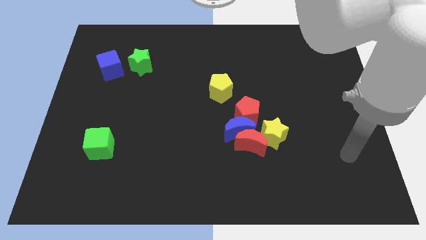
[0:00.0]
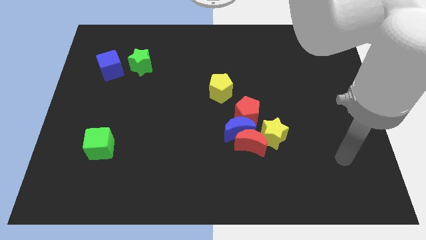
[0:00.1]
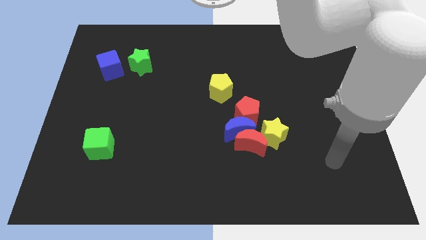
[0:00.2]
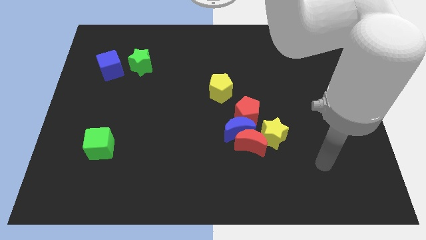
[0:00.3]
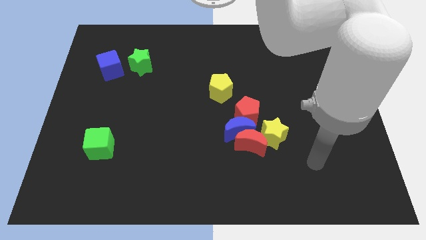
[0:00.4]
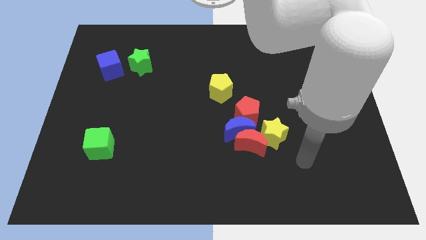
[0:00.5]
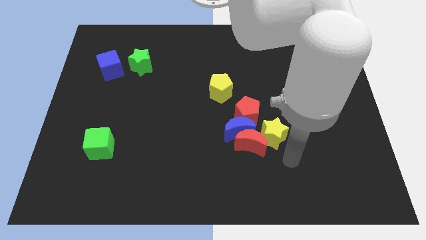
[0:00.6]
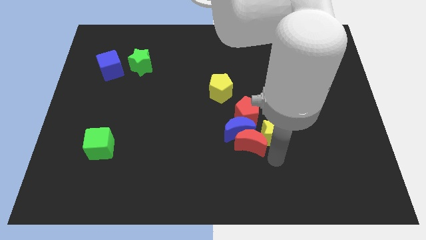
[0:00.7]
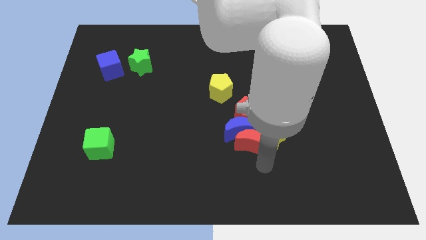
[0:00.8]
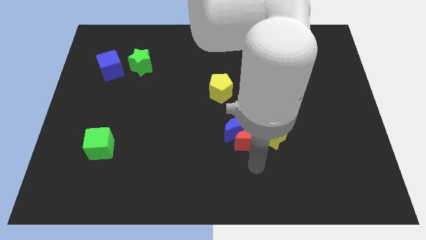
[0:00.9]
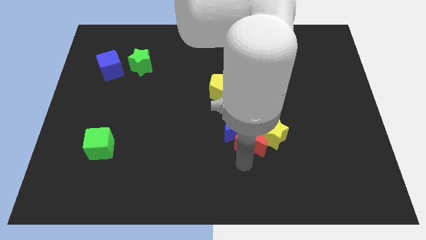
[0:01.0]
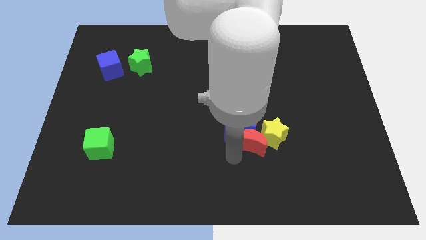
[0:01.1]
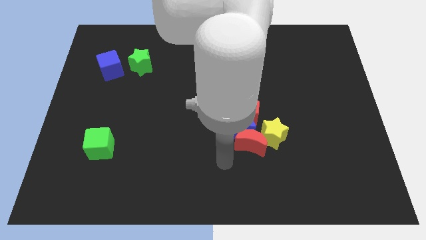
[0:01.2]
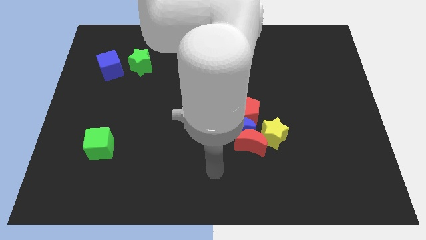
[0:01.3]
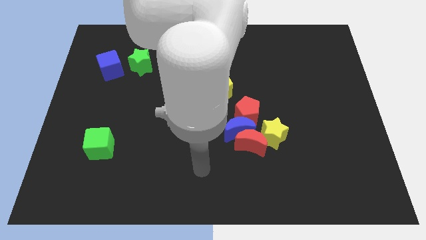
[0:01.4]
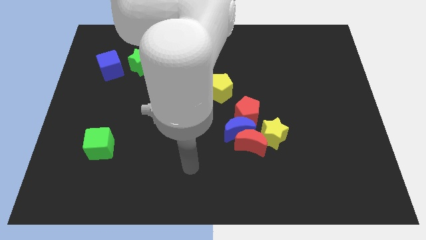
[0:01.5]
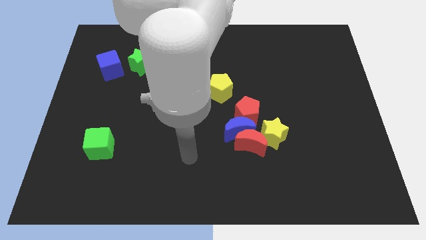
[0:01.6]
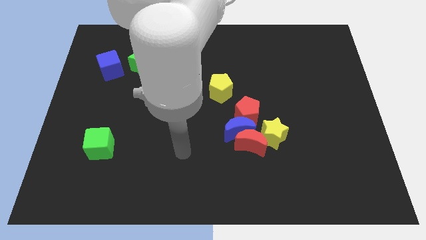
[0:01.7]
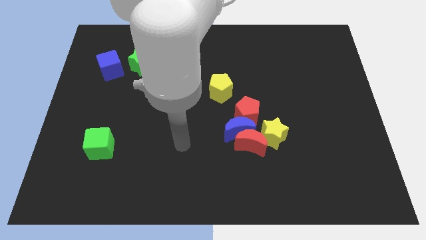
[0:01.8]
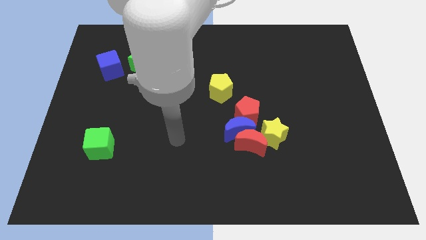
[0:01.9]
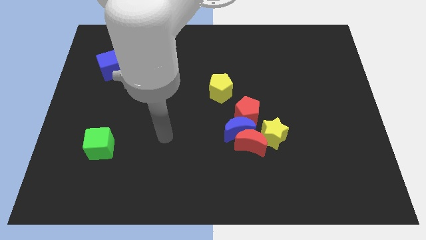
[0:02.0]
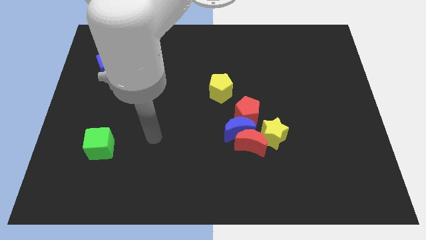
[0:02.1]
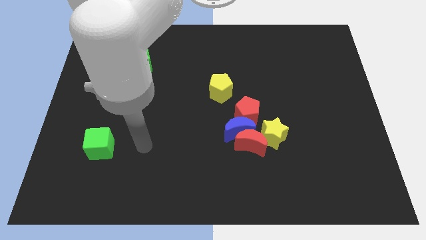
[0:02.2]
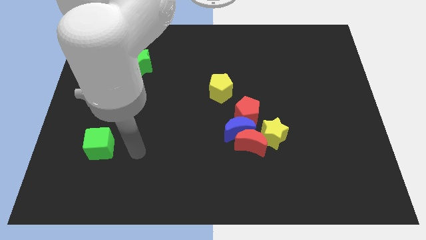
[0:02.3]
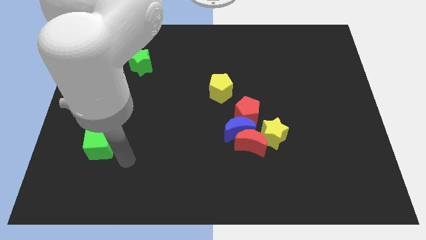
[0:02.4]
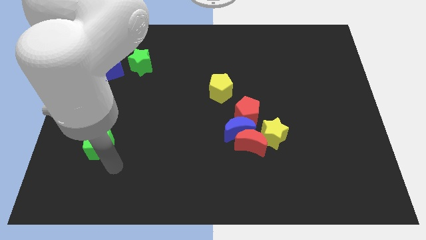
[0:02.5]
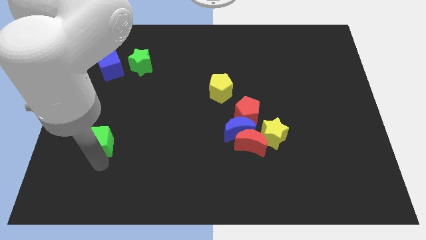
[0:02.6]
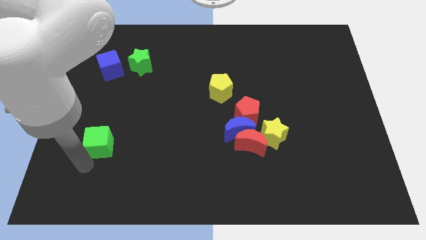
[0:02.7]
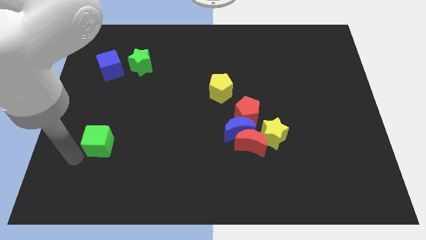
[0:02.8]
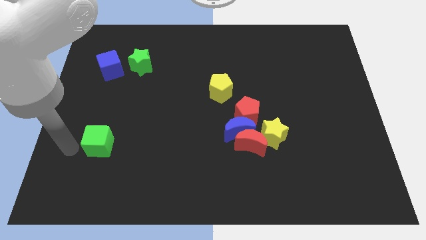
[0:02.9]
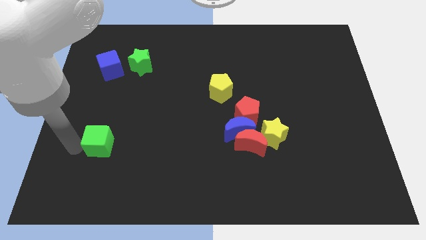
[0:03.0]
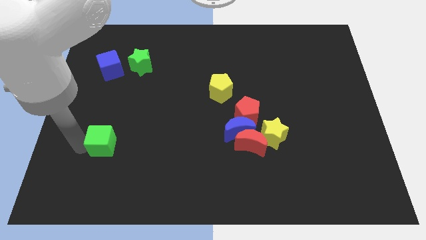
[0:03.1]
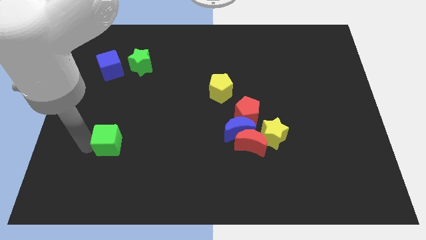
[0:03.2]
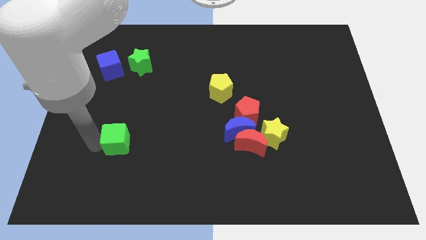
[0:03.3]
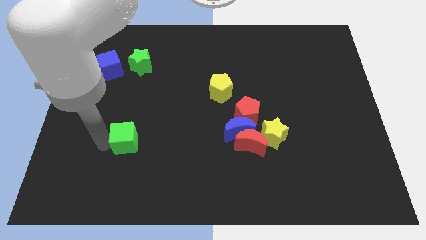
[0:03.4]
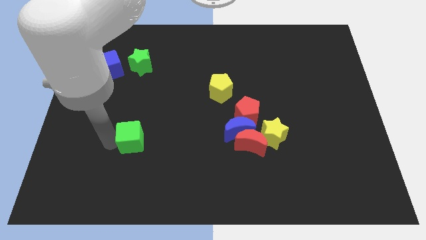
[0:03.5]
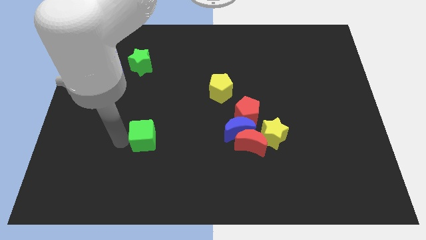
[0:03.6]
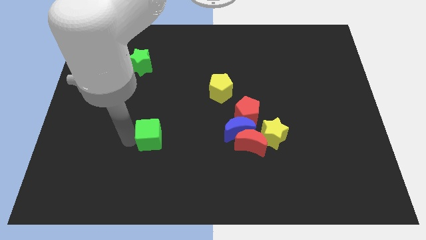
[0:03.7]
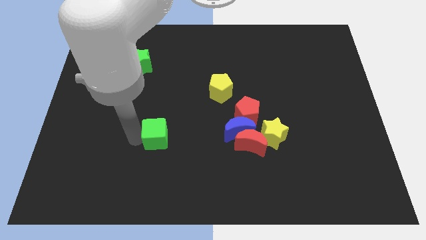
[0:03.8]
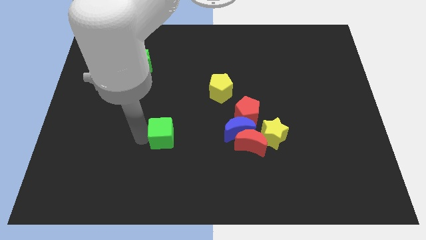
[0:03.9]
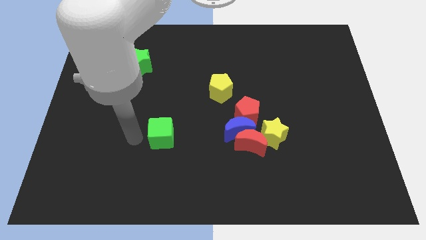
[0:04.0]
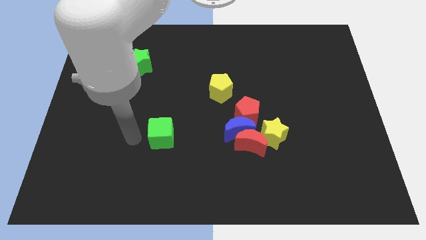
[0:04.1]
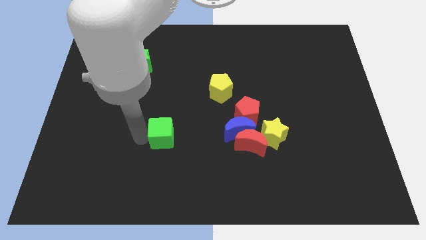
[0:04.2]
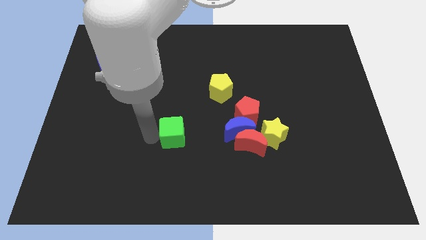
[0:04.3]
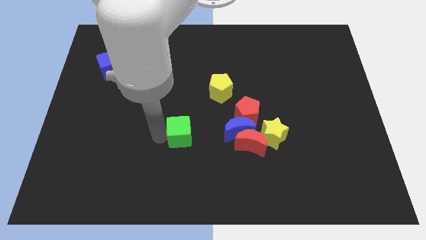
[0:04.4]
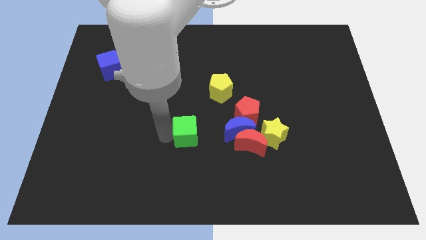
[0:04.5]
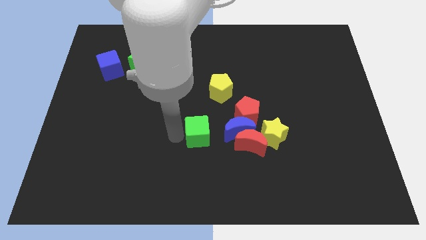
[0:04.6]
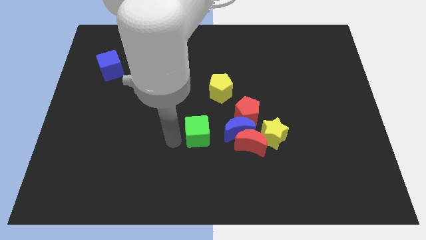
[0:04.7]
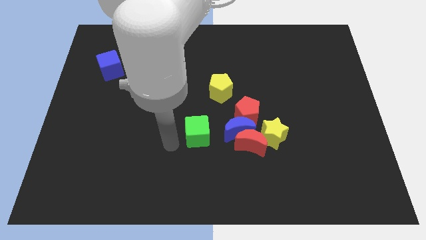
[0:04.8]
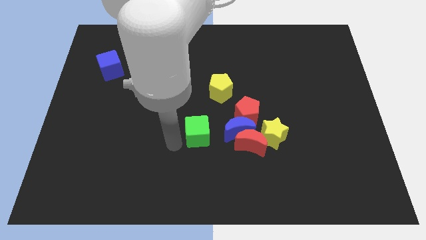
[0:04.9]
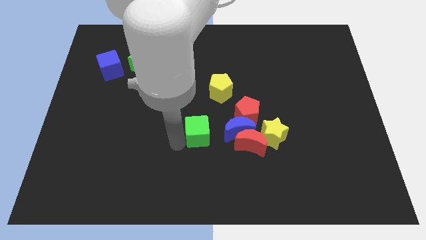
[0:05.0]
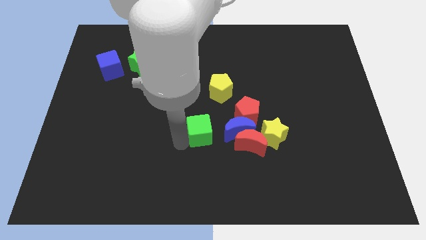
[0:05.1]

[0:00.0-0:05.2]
move the green cube to the bottom side of the yellow pentagon

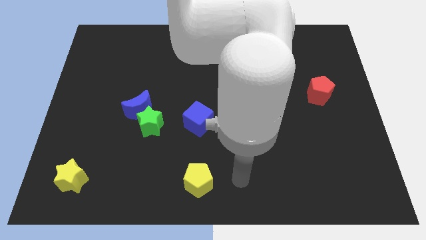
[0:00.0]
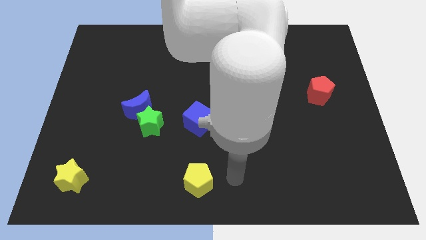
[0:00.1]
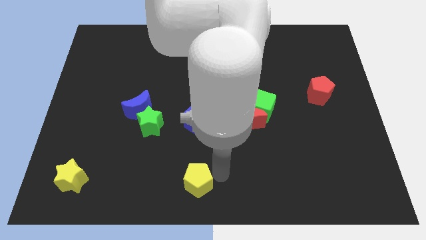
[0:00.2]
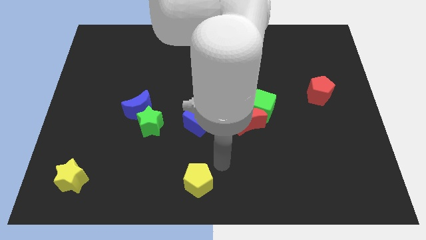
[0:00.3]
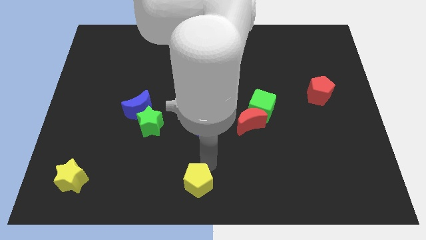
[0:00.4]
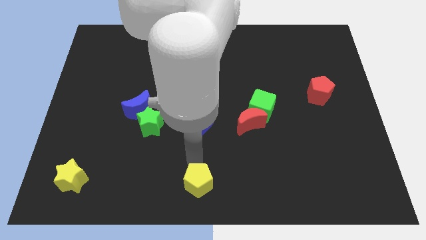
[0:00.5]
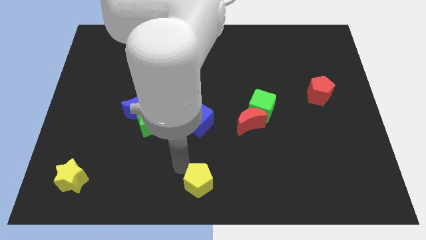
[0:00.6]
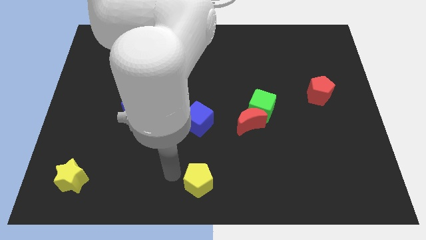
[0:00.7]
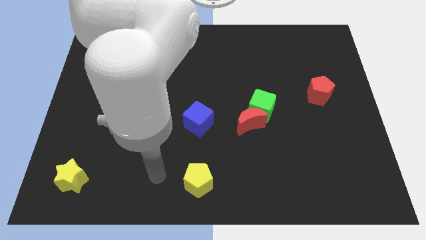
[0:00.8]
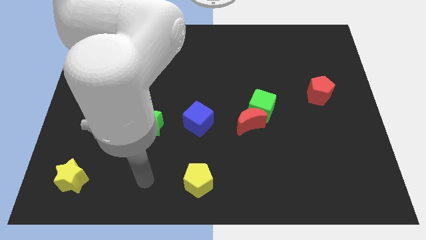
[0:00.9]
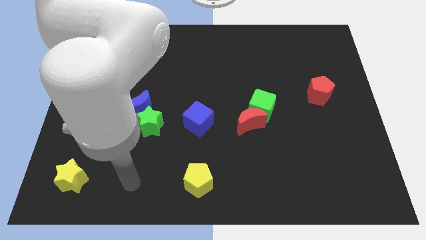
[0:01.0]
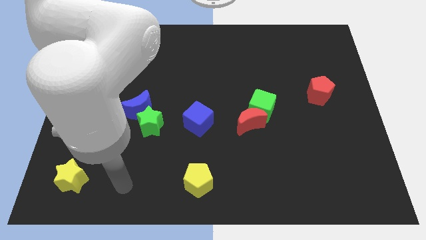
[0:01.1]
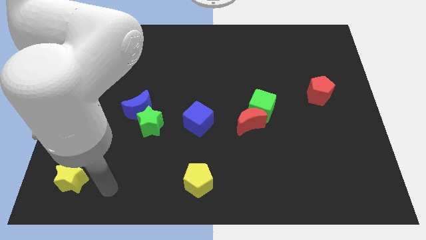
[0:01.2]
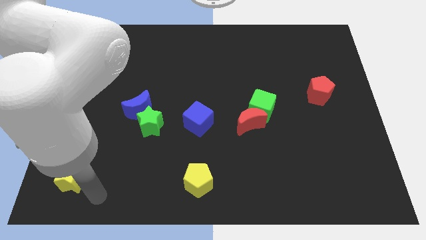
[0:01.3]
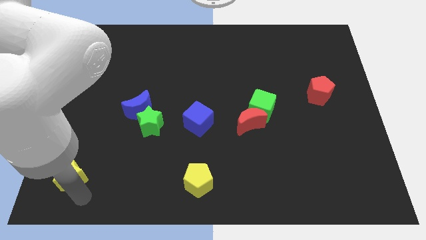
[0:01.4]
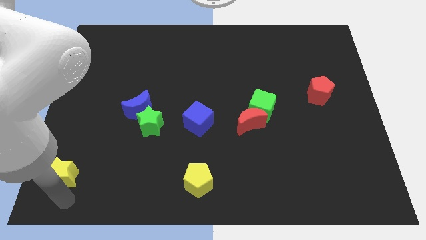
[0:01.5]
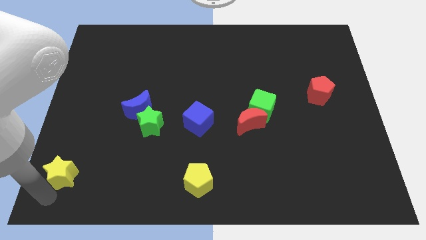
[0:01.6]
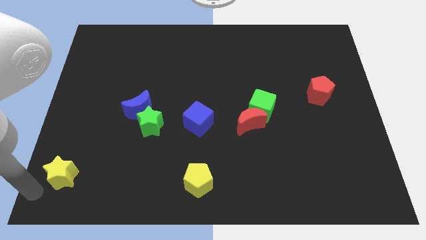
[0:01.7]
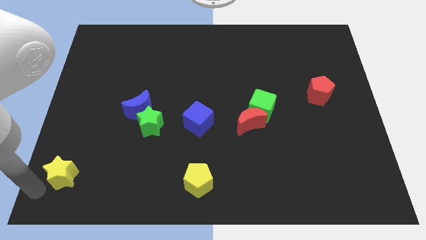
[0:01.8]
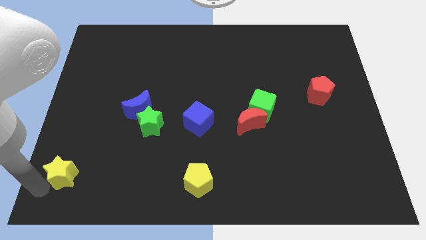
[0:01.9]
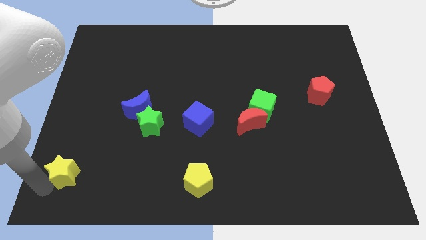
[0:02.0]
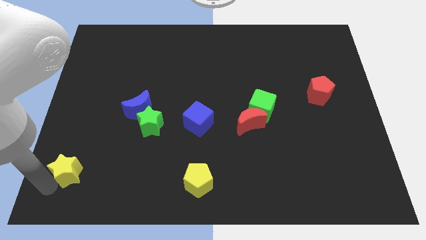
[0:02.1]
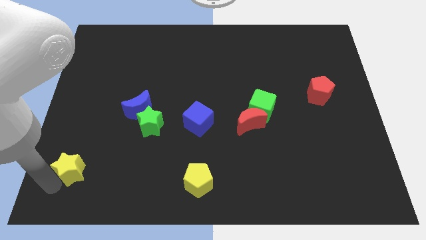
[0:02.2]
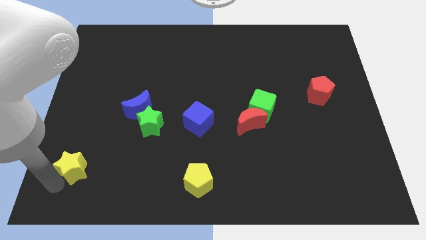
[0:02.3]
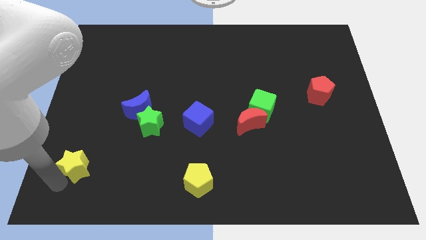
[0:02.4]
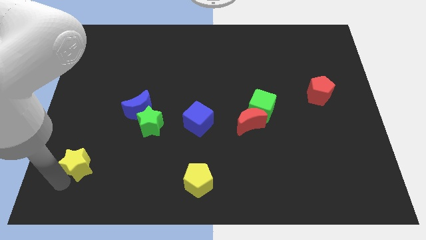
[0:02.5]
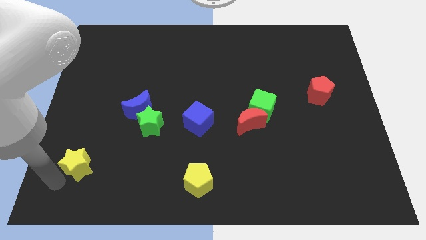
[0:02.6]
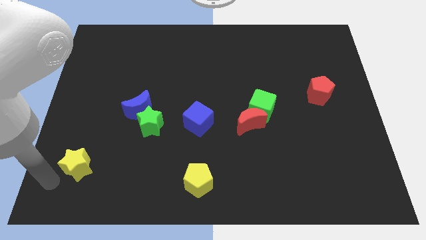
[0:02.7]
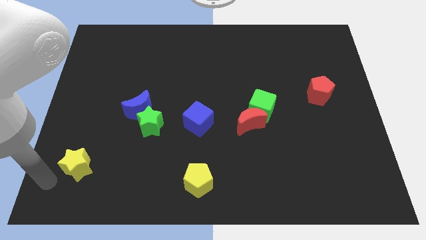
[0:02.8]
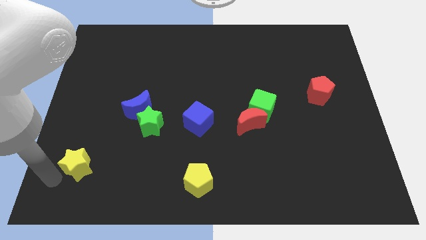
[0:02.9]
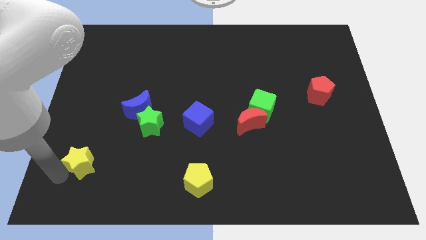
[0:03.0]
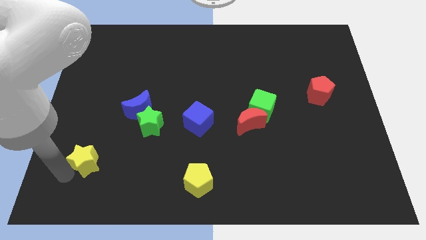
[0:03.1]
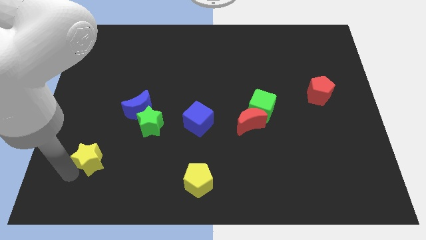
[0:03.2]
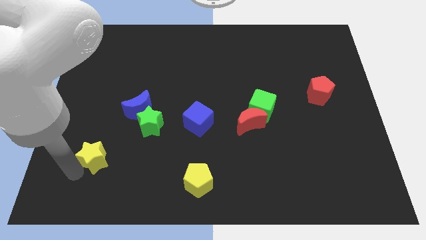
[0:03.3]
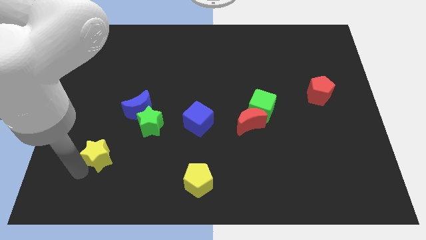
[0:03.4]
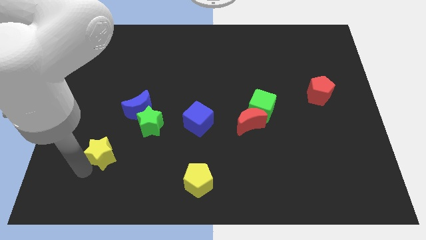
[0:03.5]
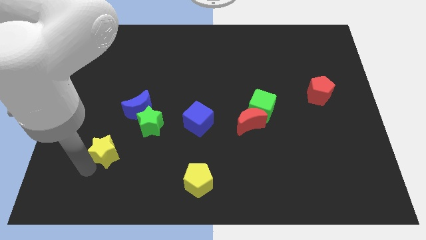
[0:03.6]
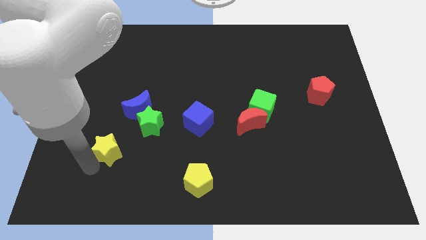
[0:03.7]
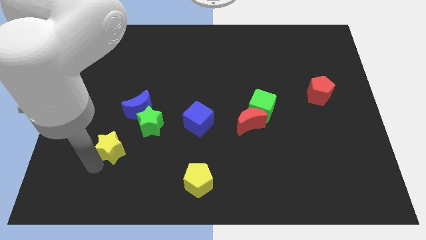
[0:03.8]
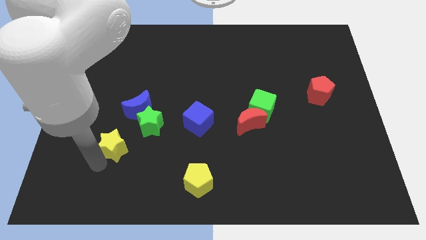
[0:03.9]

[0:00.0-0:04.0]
move the yellow star diagonally down and to the left of the blue moon
